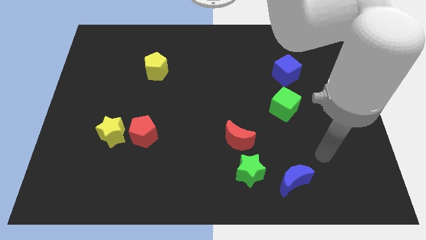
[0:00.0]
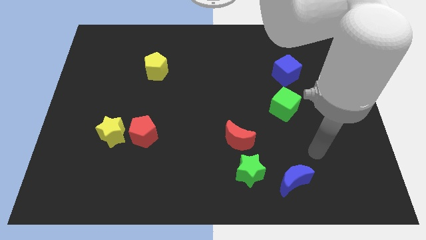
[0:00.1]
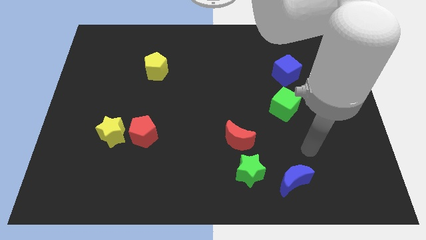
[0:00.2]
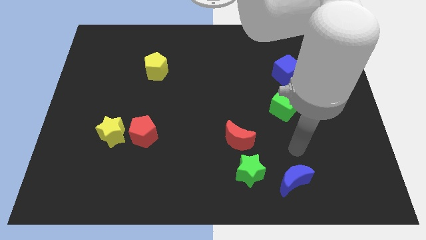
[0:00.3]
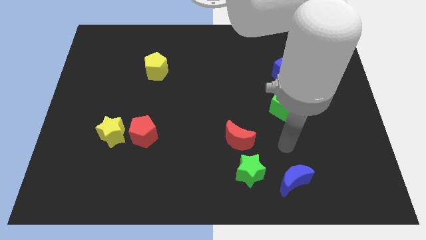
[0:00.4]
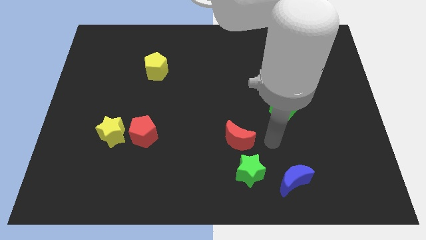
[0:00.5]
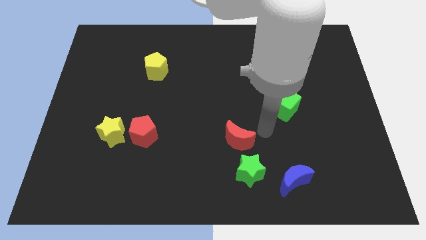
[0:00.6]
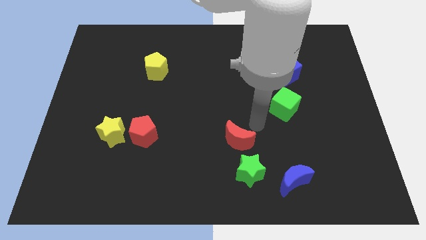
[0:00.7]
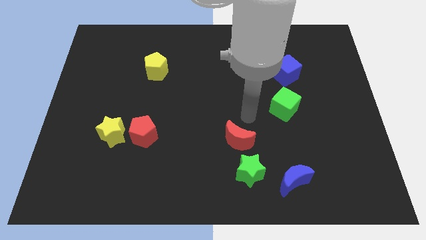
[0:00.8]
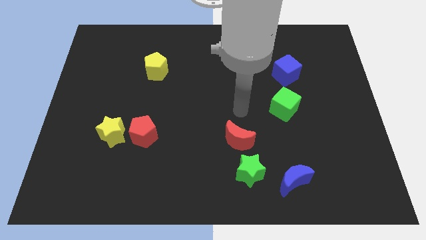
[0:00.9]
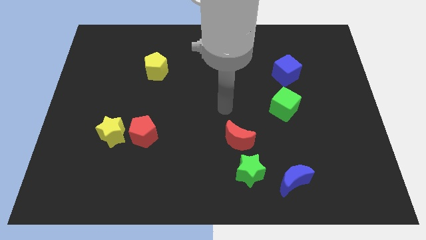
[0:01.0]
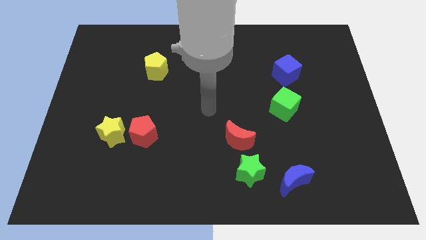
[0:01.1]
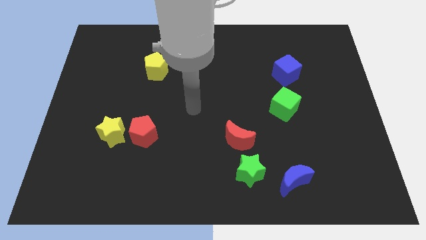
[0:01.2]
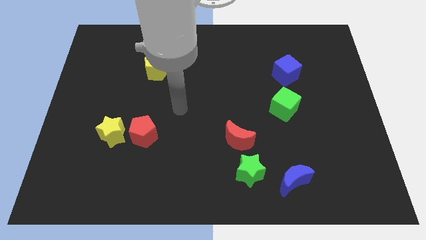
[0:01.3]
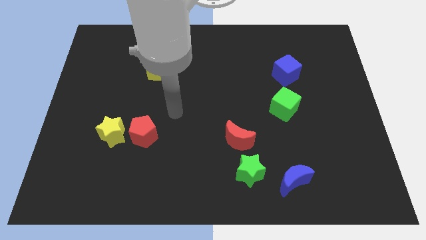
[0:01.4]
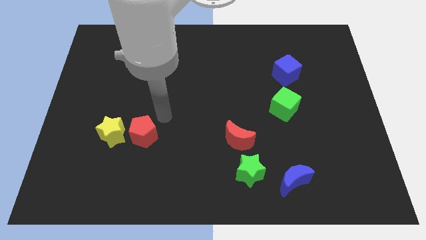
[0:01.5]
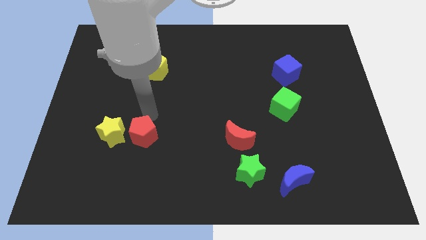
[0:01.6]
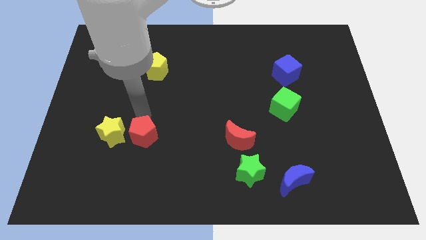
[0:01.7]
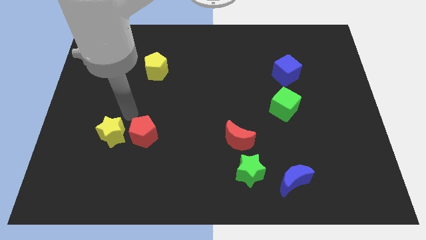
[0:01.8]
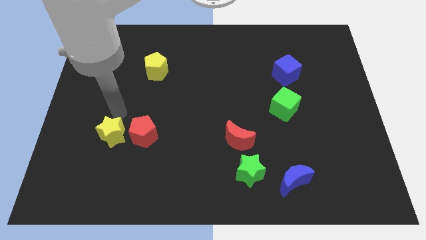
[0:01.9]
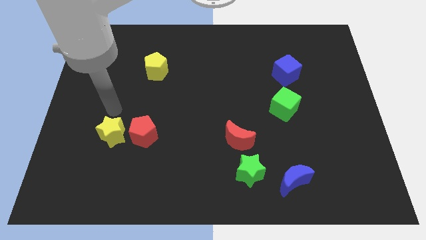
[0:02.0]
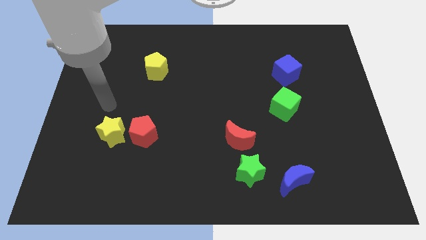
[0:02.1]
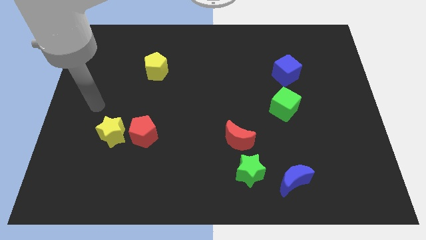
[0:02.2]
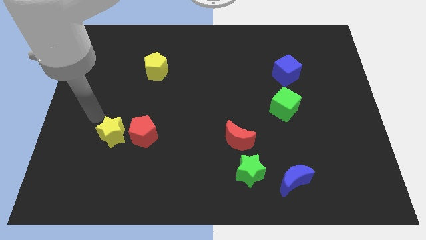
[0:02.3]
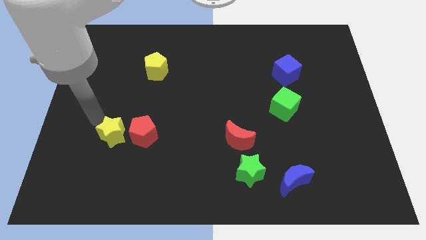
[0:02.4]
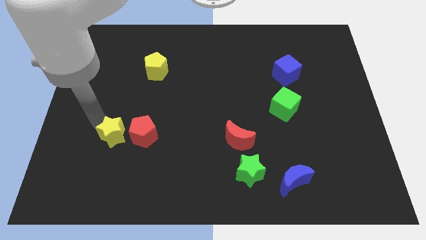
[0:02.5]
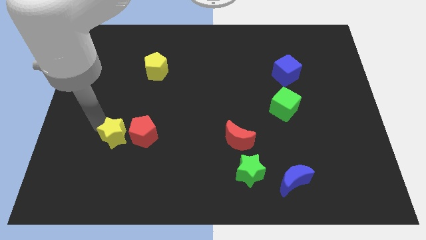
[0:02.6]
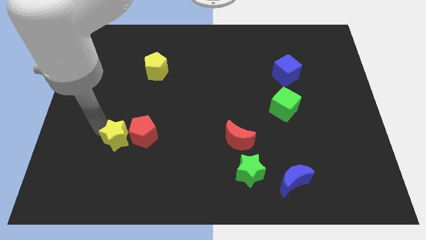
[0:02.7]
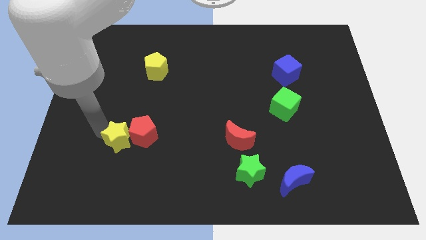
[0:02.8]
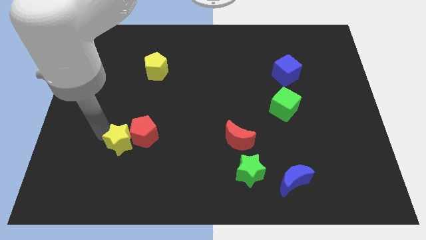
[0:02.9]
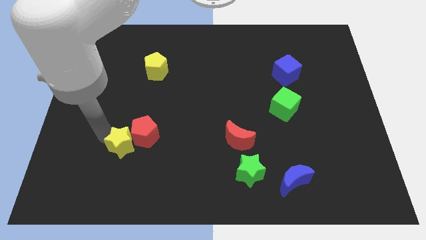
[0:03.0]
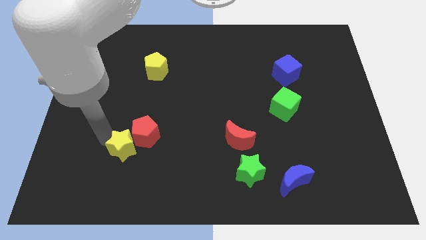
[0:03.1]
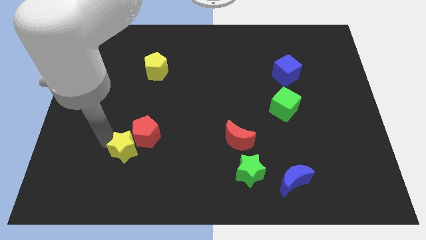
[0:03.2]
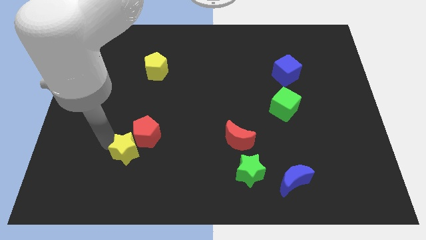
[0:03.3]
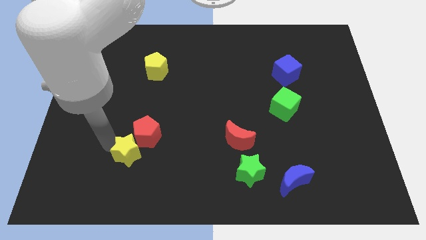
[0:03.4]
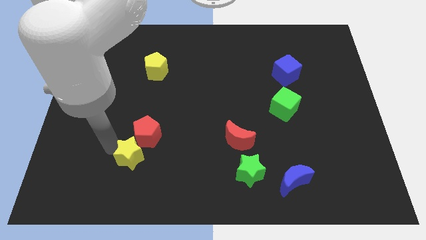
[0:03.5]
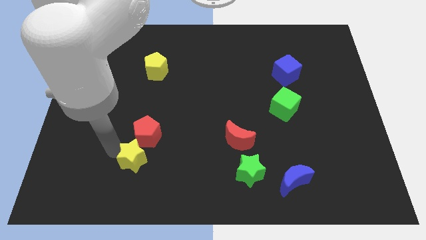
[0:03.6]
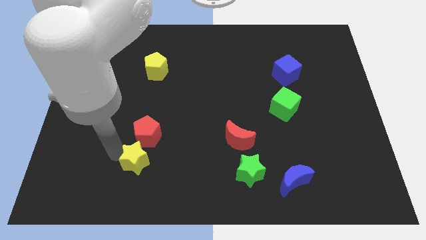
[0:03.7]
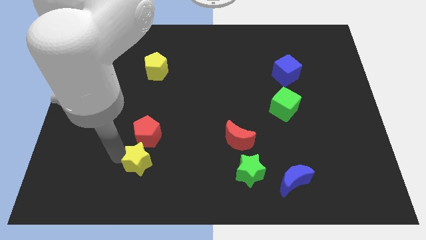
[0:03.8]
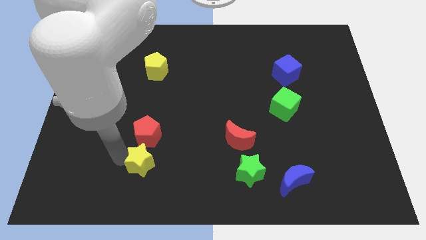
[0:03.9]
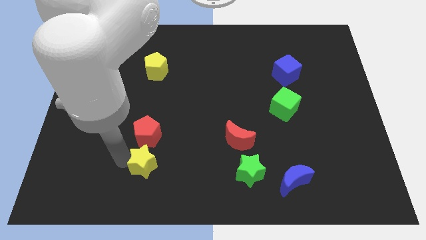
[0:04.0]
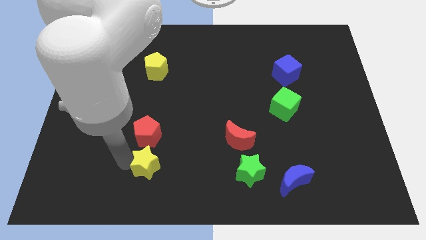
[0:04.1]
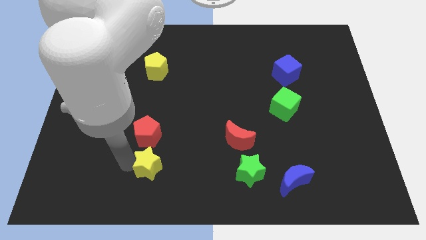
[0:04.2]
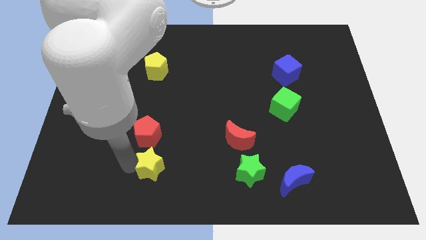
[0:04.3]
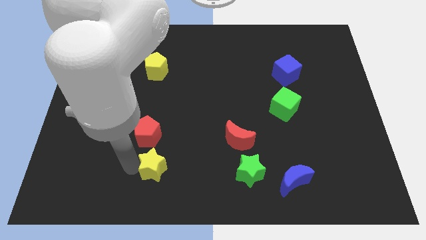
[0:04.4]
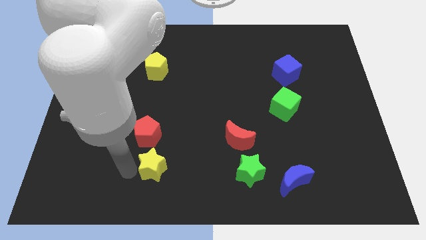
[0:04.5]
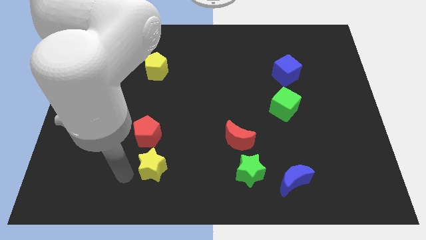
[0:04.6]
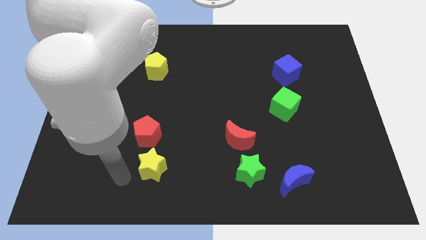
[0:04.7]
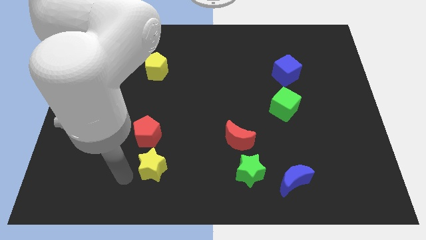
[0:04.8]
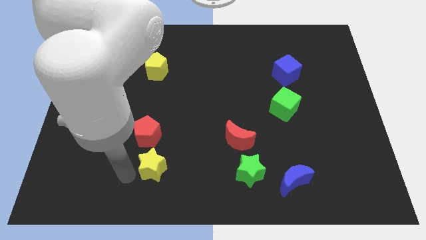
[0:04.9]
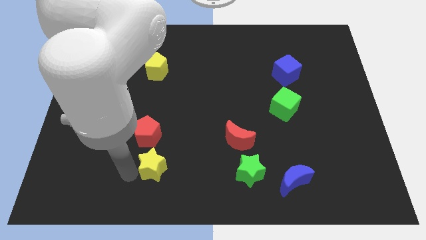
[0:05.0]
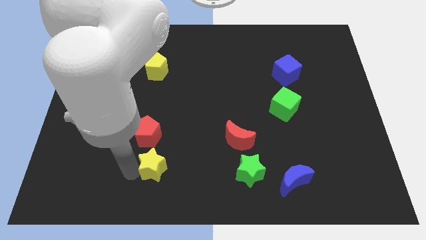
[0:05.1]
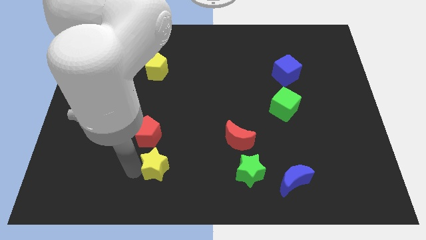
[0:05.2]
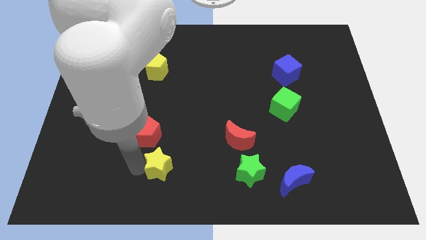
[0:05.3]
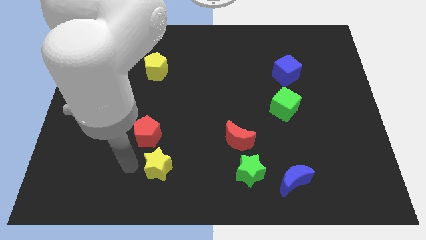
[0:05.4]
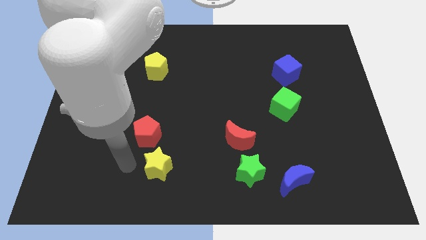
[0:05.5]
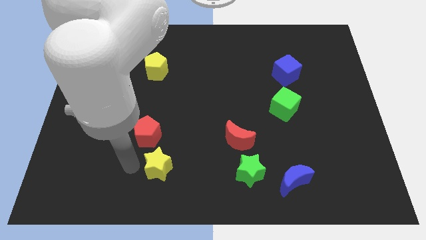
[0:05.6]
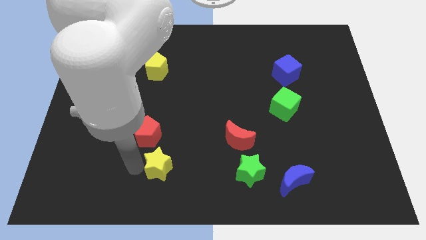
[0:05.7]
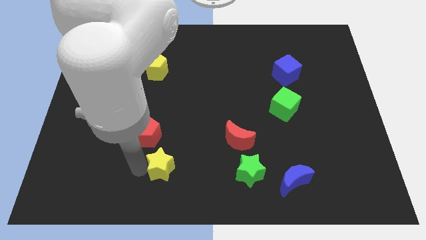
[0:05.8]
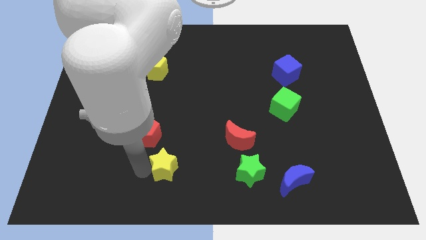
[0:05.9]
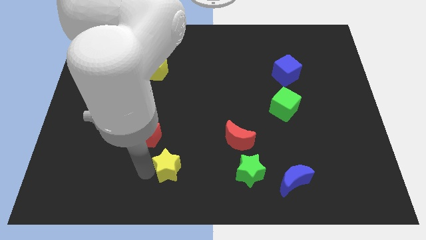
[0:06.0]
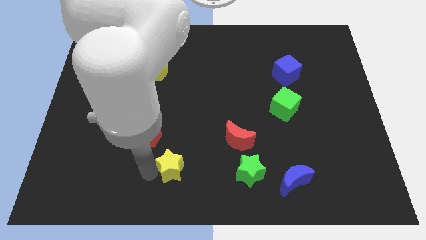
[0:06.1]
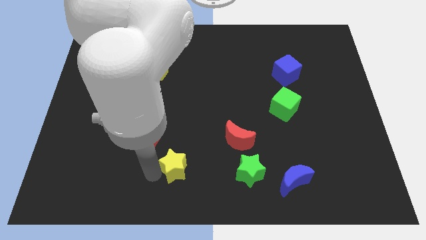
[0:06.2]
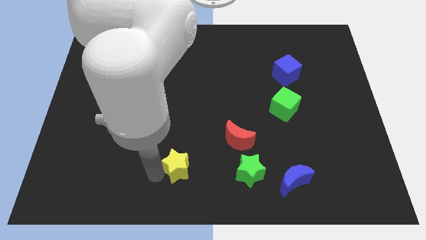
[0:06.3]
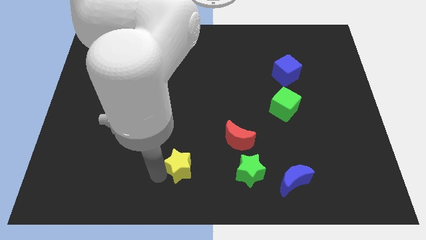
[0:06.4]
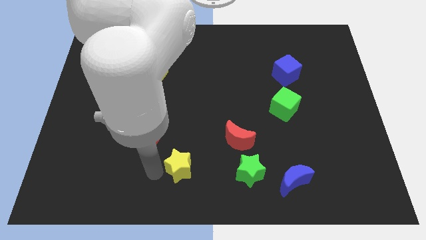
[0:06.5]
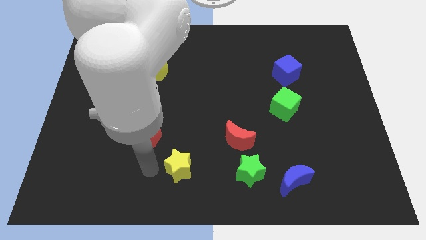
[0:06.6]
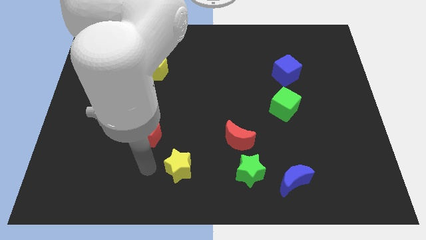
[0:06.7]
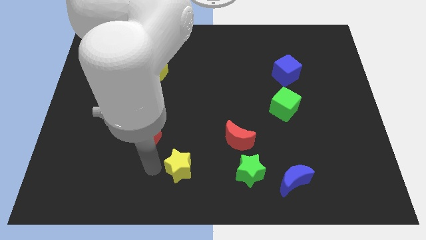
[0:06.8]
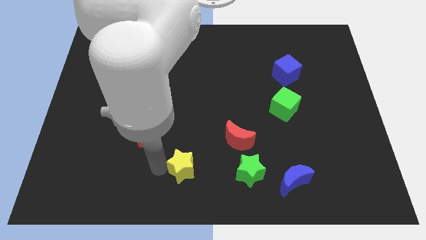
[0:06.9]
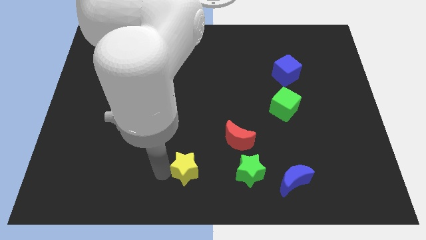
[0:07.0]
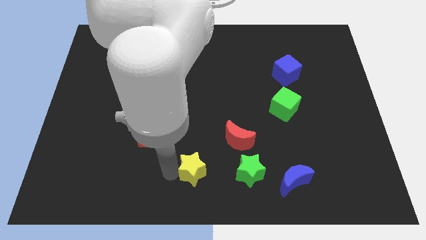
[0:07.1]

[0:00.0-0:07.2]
slide the yellow star diagonally down and to the left of the red moon
